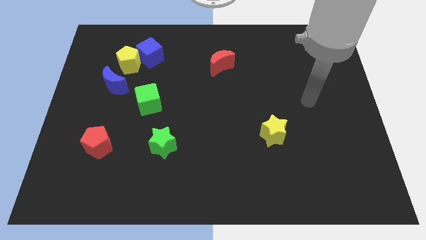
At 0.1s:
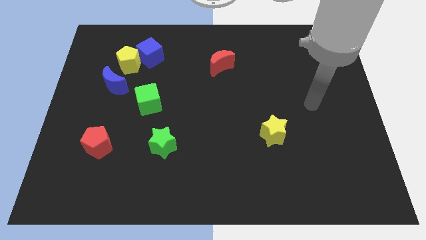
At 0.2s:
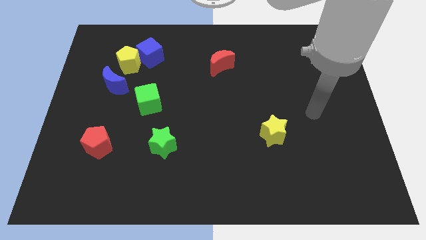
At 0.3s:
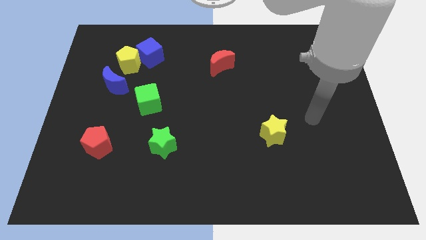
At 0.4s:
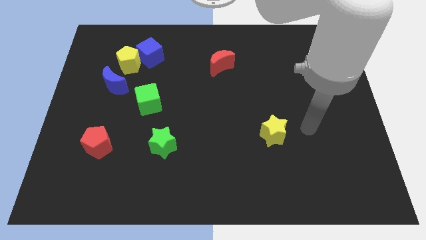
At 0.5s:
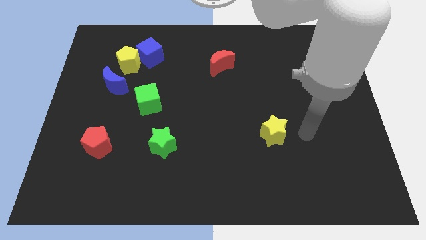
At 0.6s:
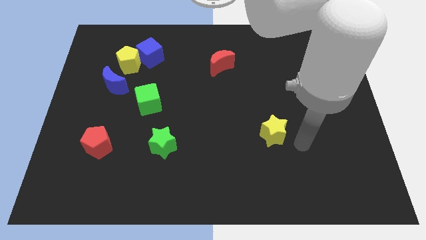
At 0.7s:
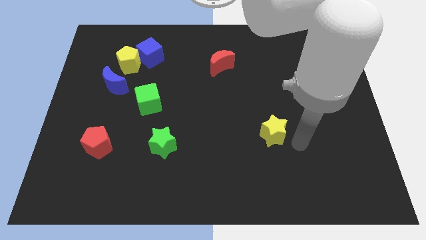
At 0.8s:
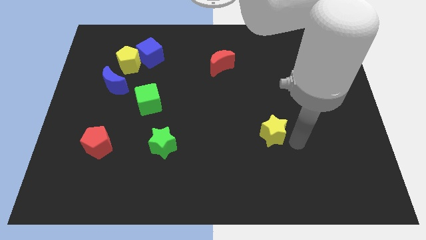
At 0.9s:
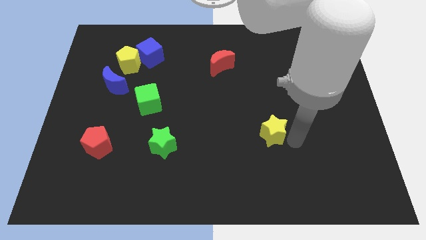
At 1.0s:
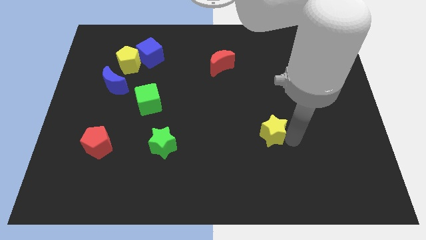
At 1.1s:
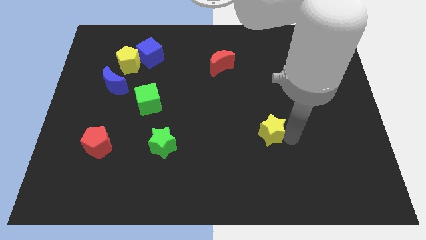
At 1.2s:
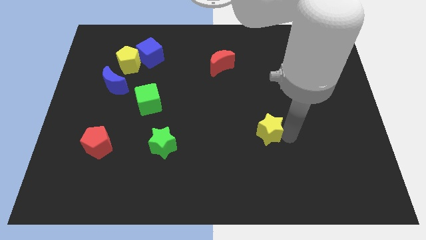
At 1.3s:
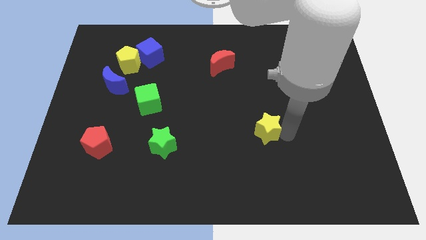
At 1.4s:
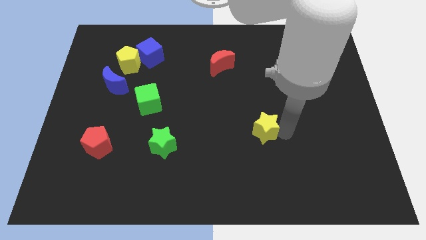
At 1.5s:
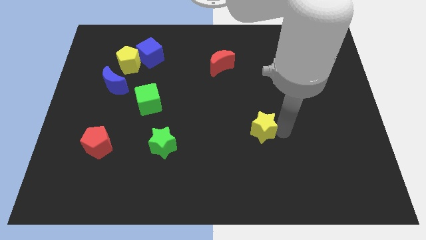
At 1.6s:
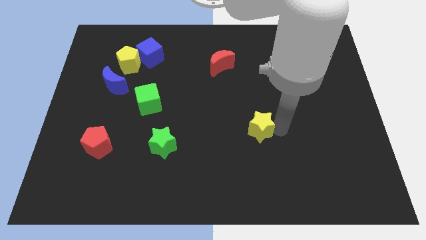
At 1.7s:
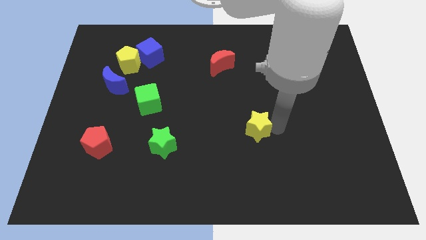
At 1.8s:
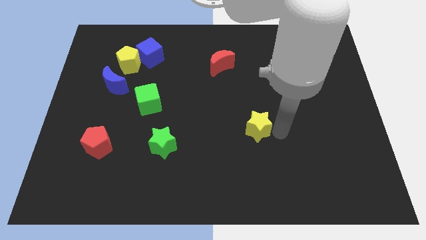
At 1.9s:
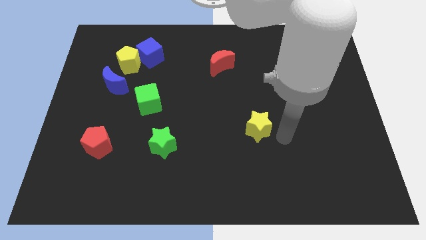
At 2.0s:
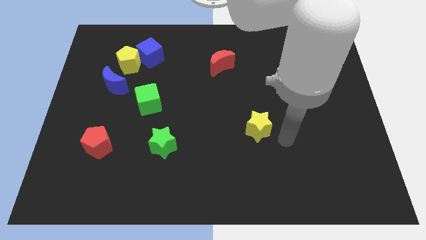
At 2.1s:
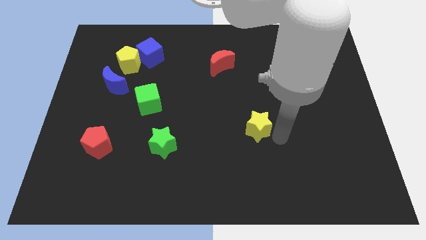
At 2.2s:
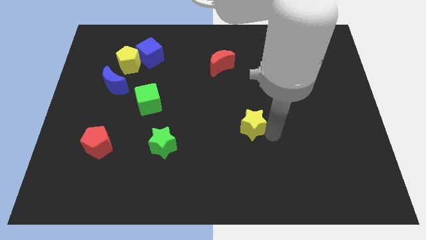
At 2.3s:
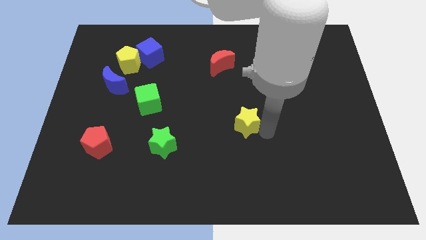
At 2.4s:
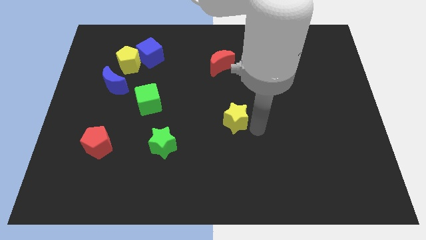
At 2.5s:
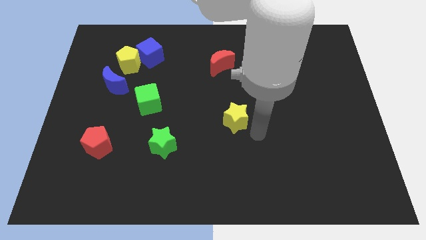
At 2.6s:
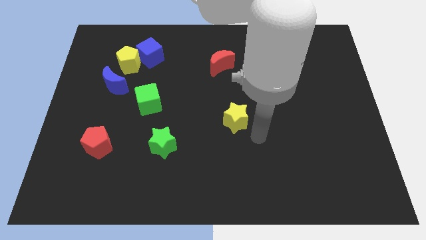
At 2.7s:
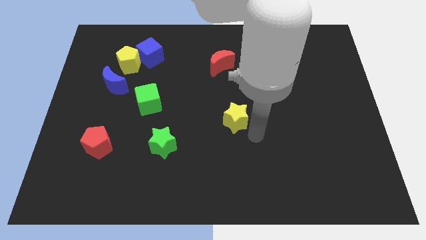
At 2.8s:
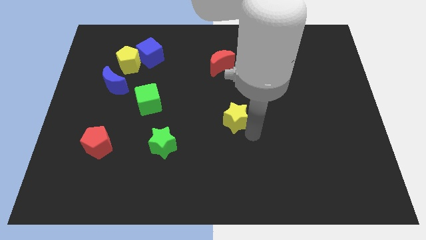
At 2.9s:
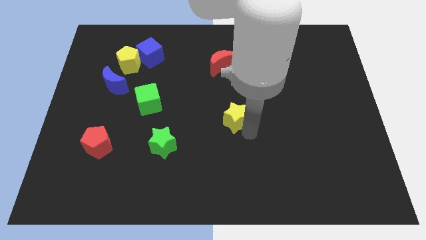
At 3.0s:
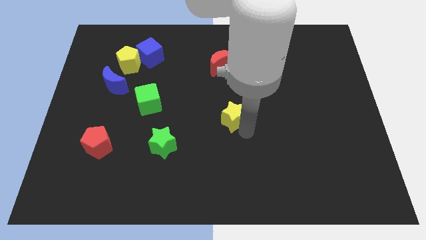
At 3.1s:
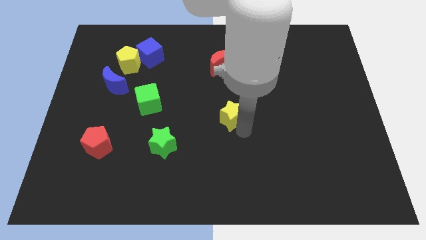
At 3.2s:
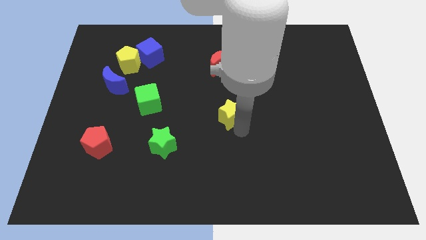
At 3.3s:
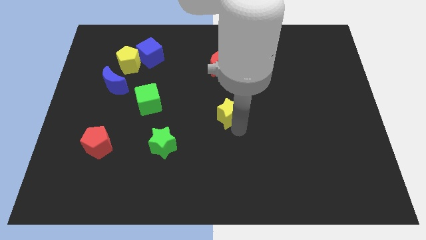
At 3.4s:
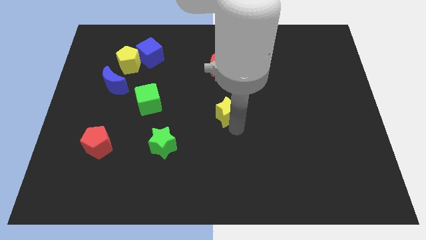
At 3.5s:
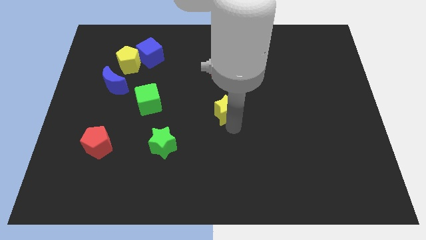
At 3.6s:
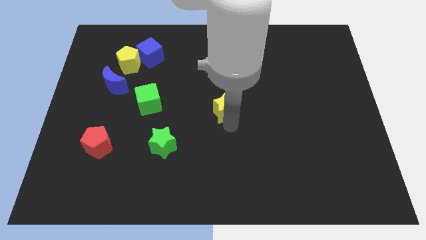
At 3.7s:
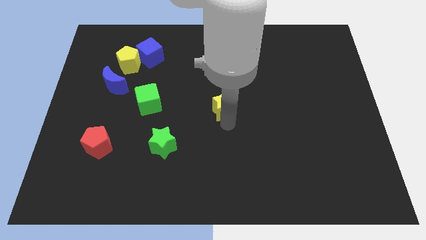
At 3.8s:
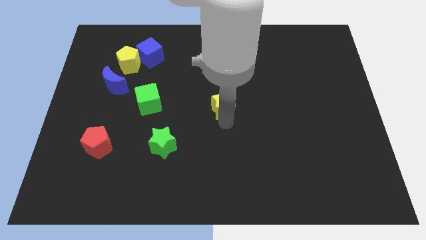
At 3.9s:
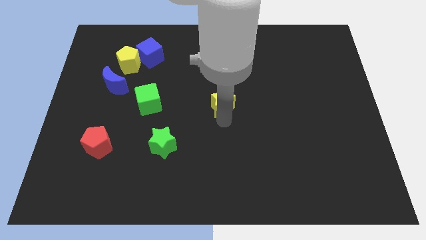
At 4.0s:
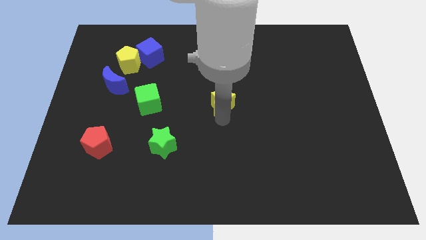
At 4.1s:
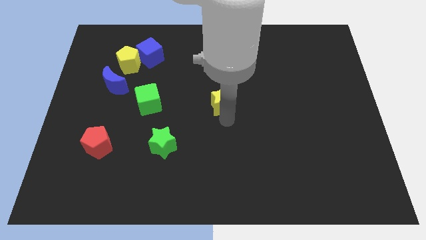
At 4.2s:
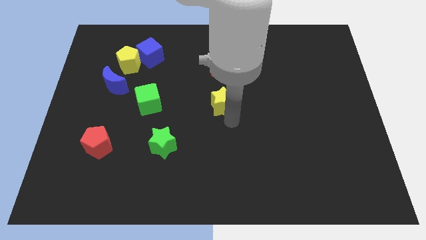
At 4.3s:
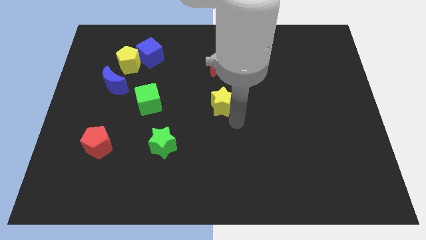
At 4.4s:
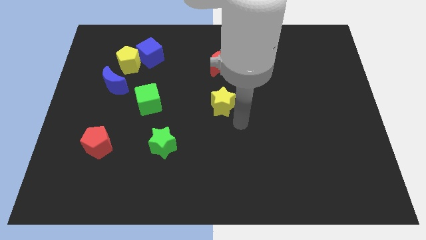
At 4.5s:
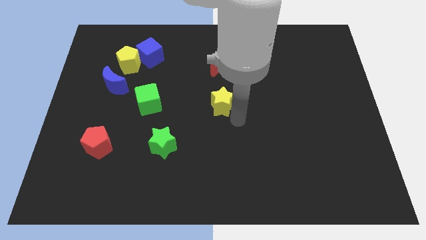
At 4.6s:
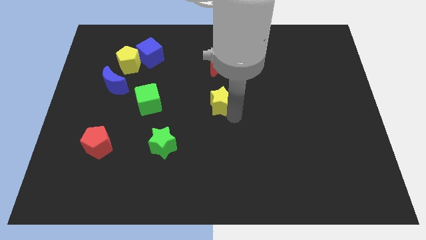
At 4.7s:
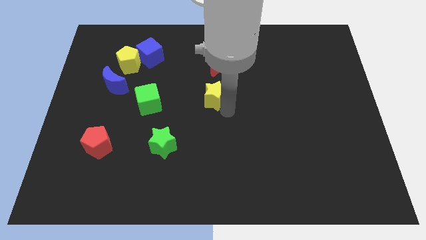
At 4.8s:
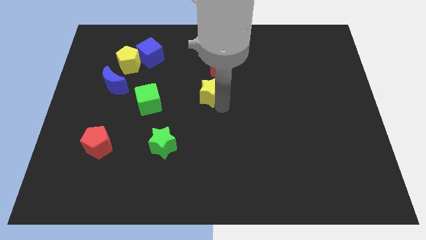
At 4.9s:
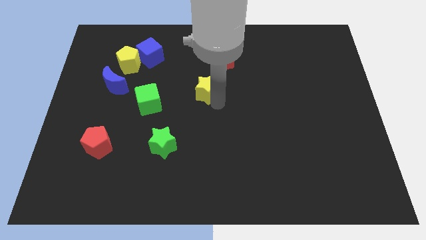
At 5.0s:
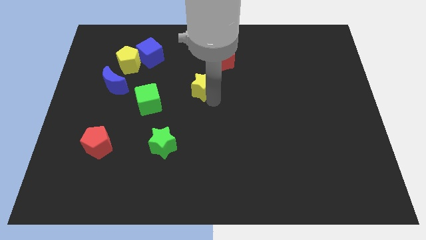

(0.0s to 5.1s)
slide the yellow star up and to the left diagonally

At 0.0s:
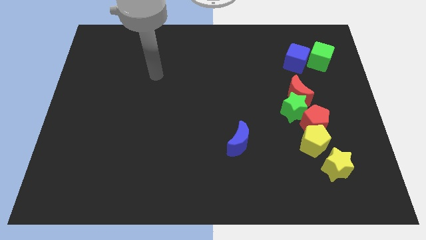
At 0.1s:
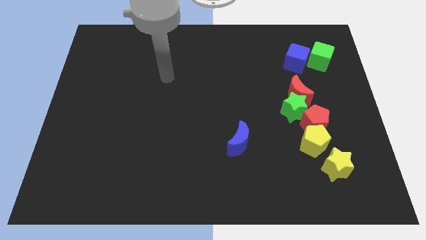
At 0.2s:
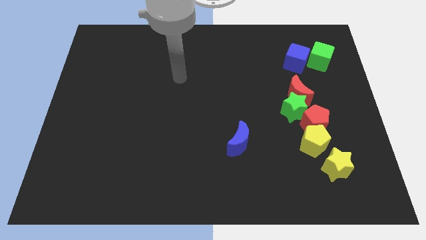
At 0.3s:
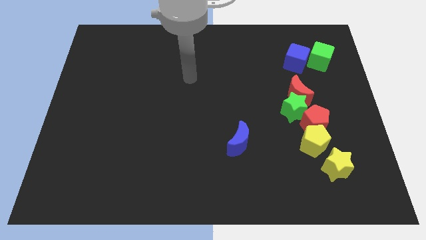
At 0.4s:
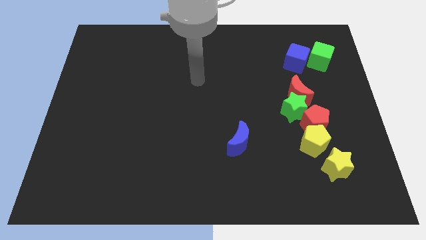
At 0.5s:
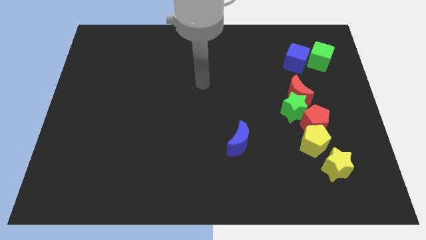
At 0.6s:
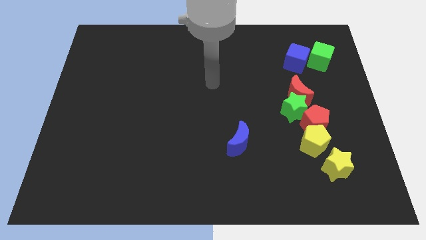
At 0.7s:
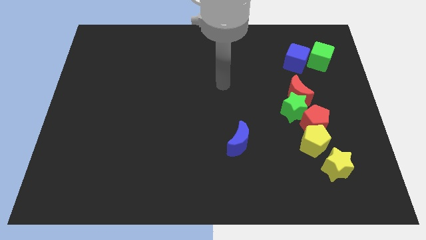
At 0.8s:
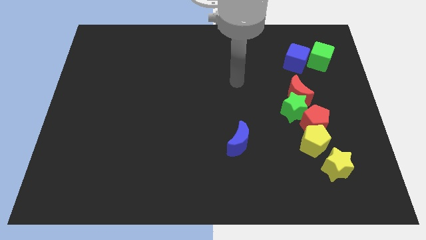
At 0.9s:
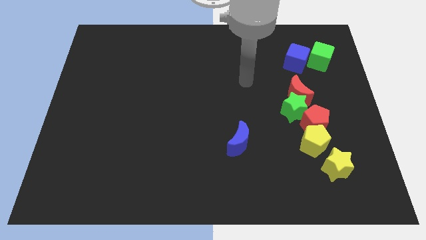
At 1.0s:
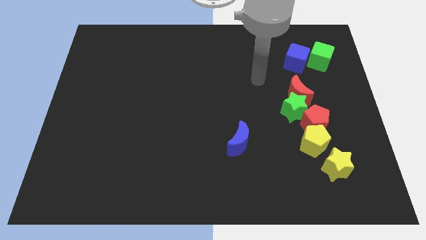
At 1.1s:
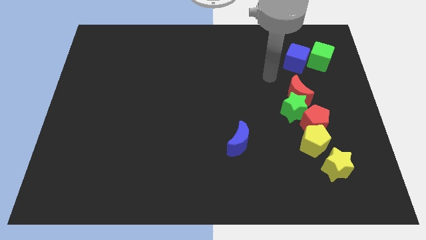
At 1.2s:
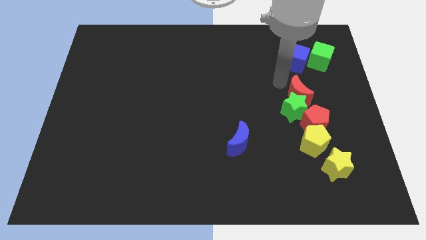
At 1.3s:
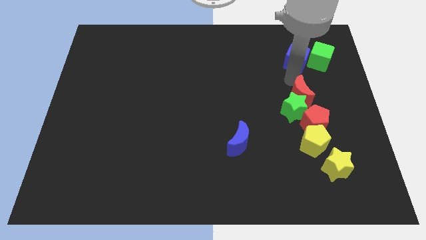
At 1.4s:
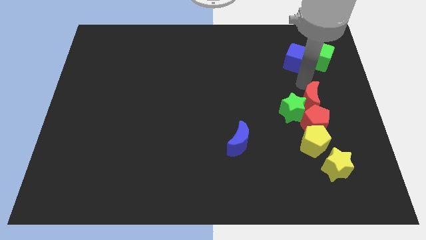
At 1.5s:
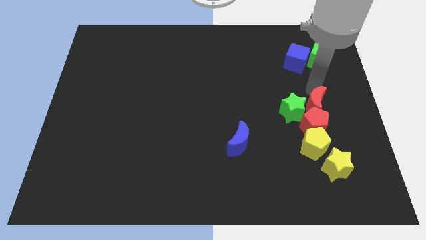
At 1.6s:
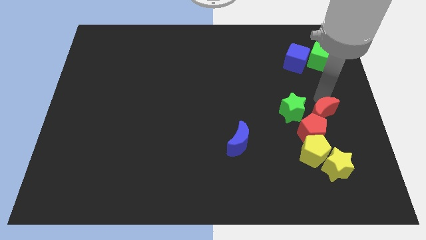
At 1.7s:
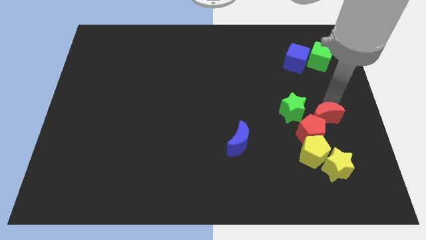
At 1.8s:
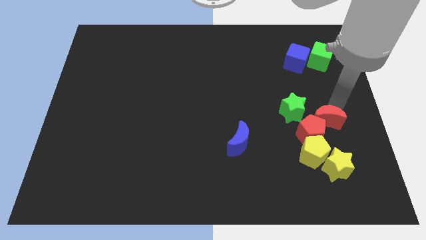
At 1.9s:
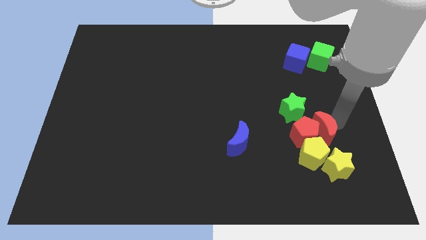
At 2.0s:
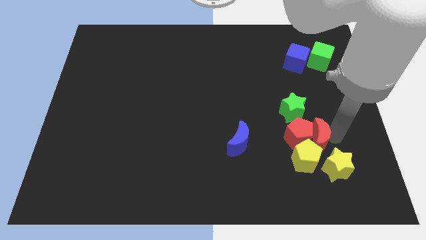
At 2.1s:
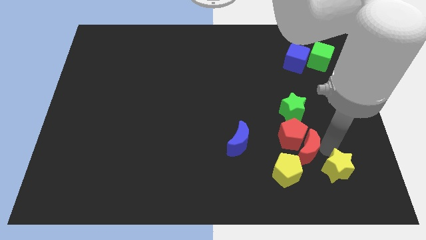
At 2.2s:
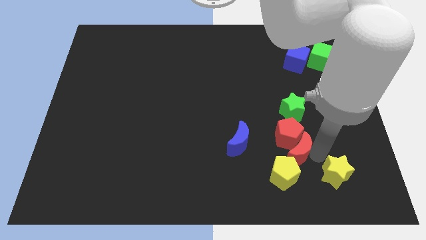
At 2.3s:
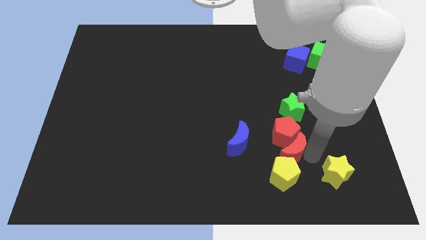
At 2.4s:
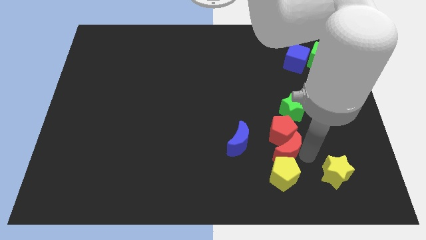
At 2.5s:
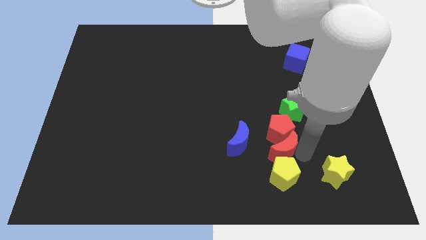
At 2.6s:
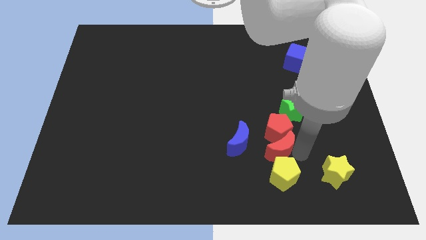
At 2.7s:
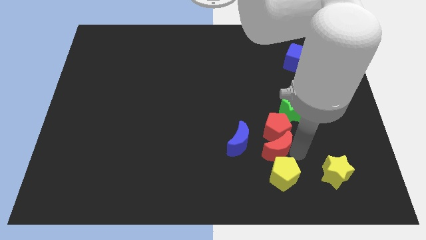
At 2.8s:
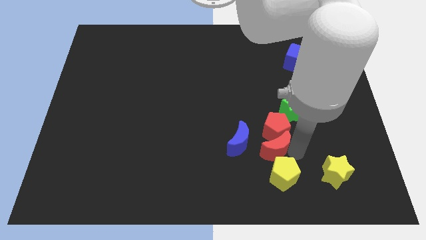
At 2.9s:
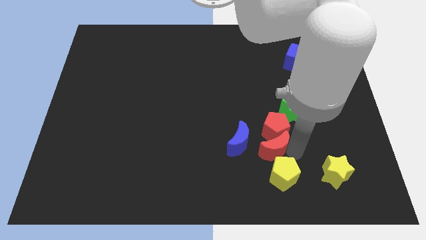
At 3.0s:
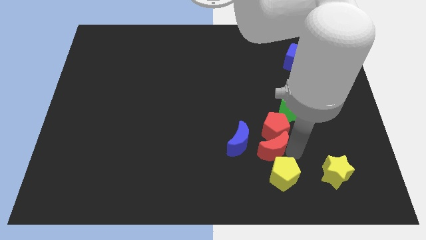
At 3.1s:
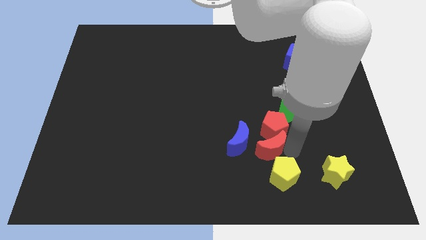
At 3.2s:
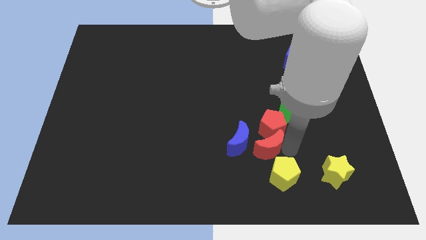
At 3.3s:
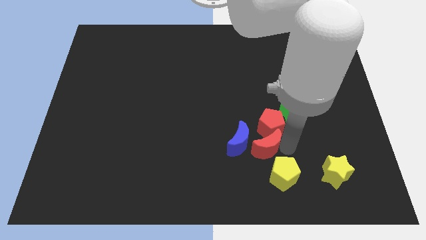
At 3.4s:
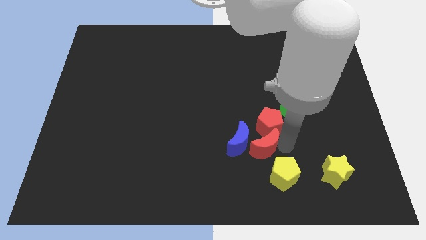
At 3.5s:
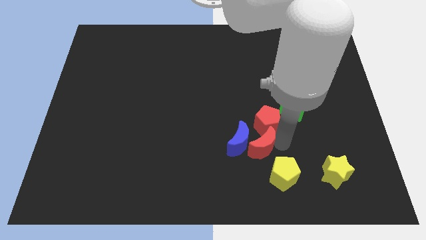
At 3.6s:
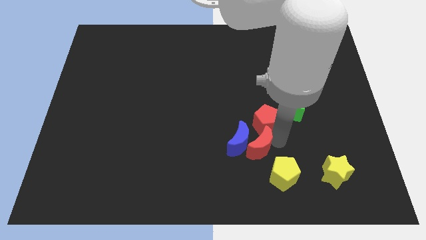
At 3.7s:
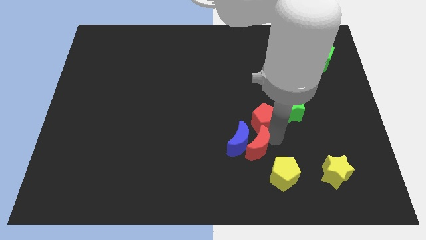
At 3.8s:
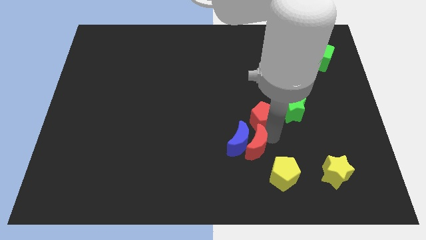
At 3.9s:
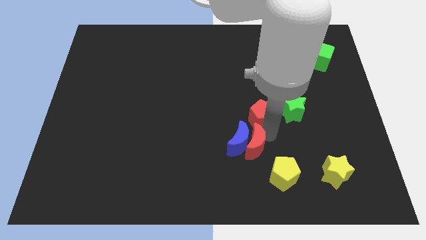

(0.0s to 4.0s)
push the red pentagon a little bit diagonally up and left
